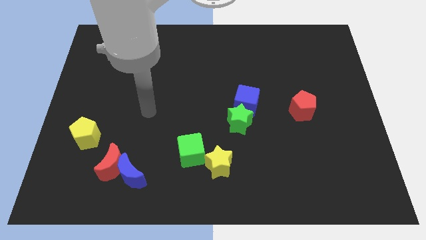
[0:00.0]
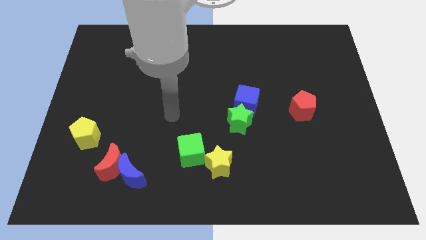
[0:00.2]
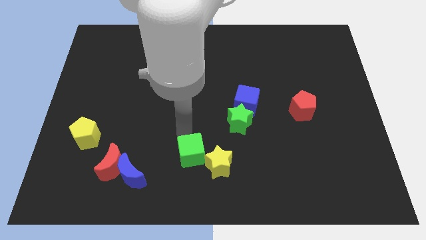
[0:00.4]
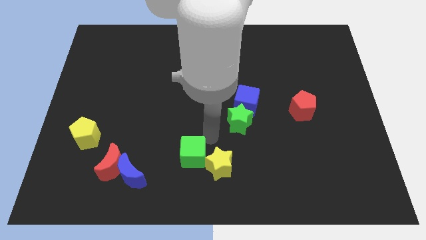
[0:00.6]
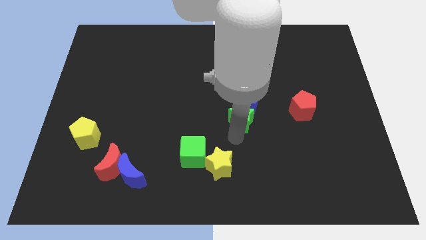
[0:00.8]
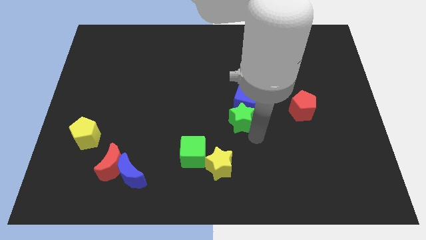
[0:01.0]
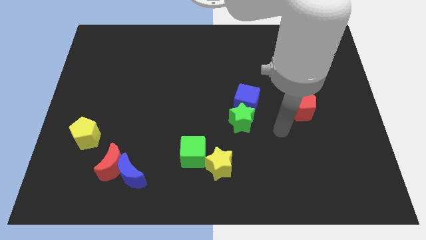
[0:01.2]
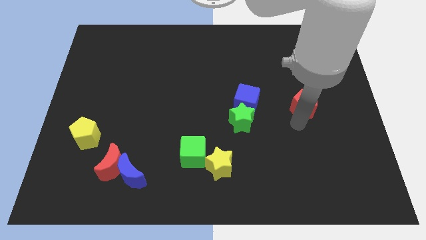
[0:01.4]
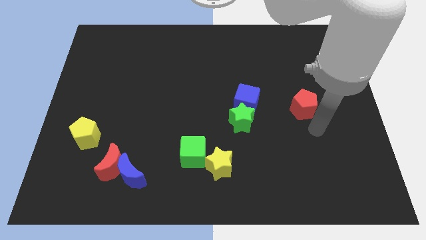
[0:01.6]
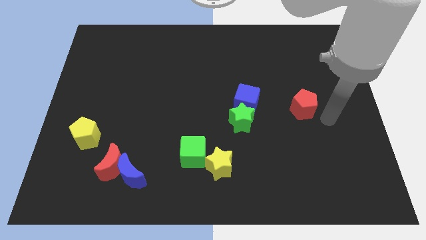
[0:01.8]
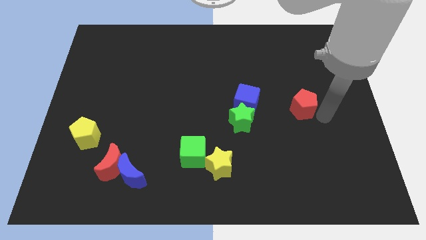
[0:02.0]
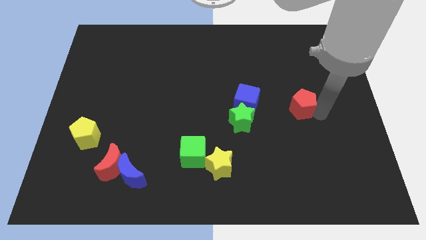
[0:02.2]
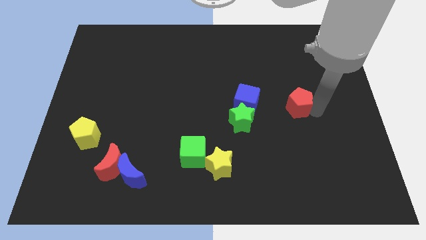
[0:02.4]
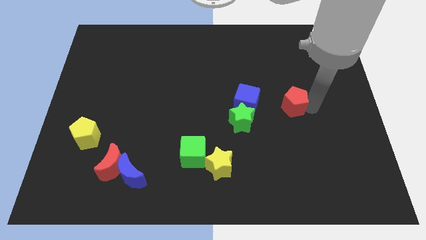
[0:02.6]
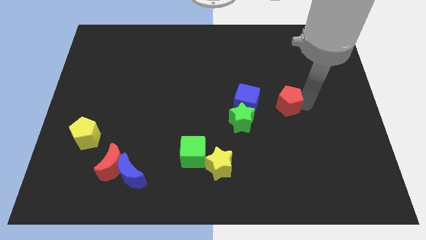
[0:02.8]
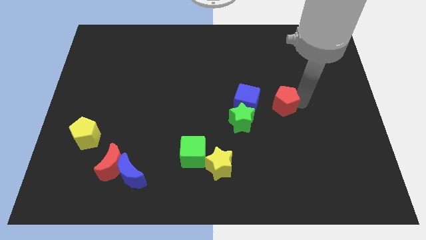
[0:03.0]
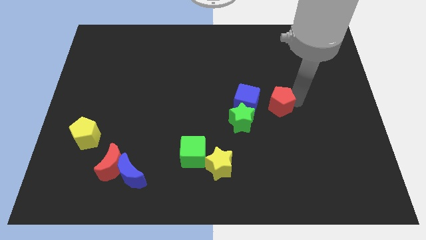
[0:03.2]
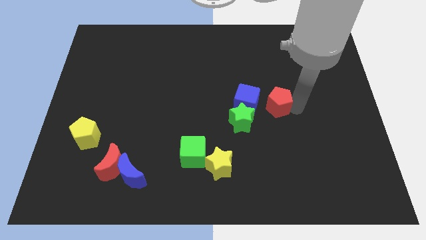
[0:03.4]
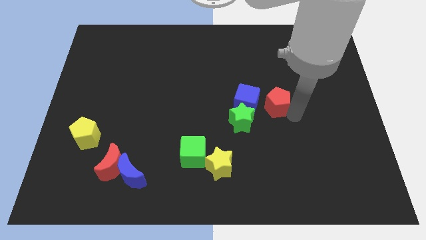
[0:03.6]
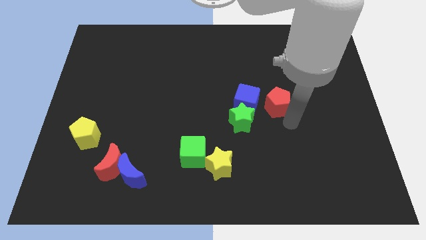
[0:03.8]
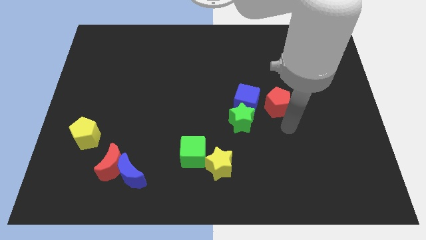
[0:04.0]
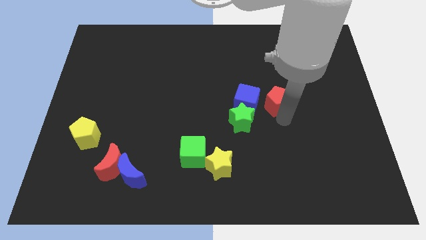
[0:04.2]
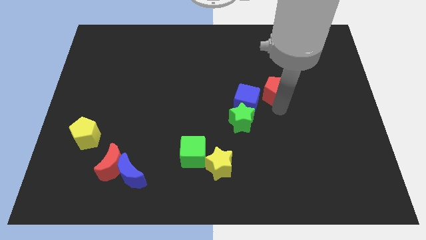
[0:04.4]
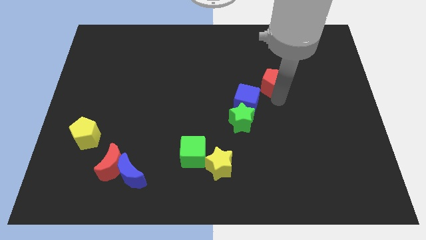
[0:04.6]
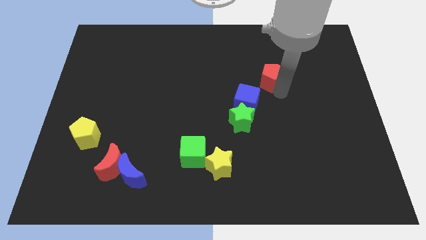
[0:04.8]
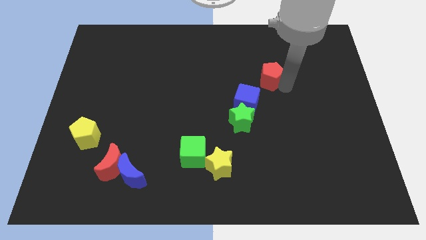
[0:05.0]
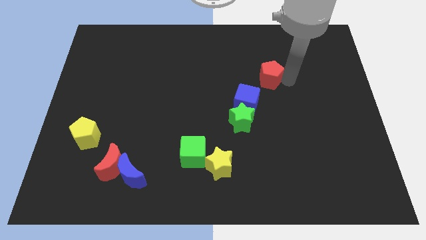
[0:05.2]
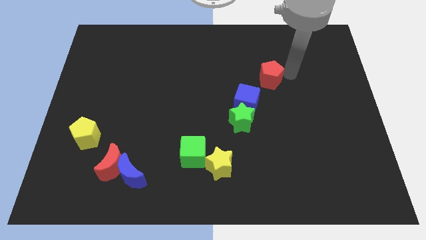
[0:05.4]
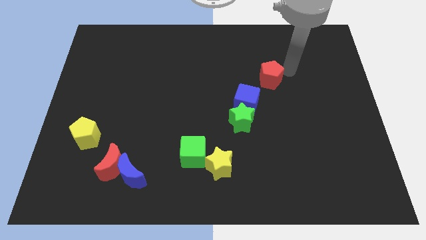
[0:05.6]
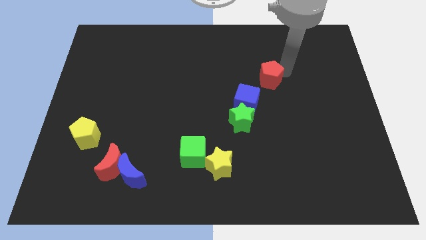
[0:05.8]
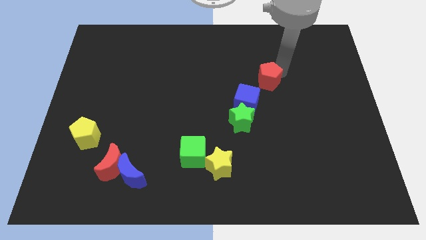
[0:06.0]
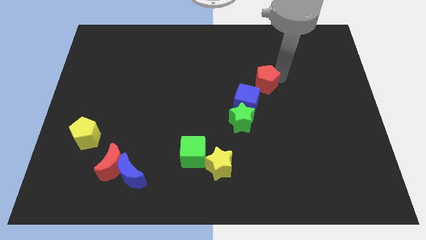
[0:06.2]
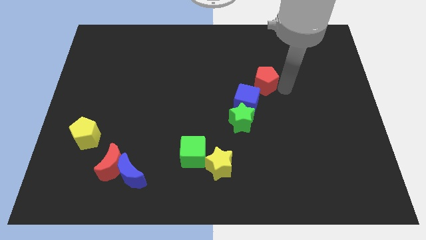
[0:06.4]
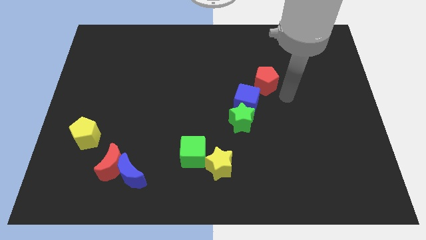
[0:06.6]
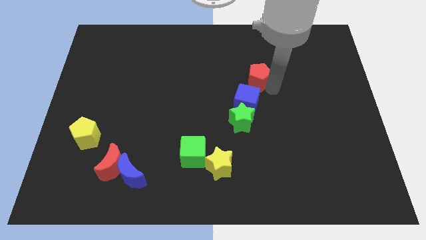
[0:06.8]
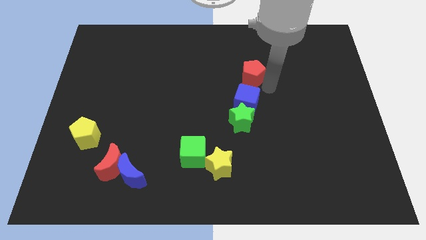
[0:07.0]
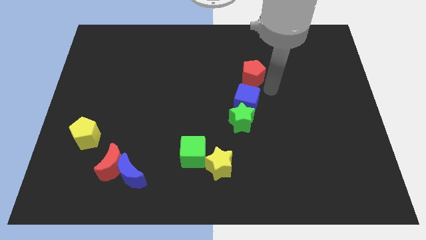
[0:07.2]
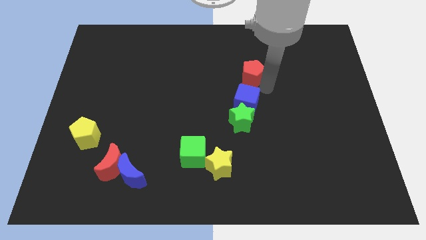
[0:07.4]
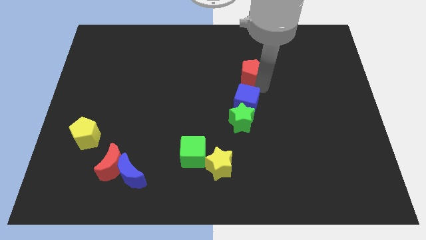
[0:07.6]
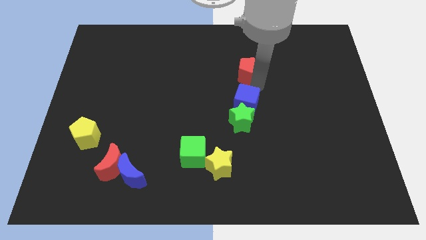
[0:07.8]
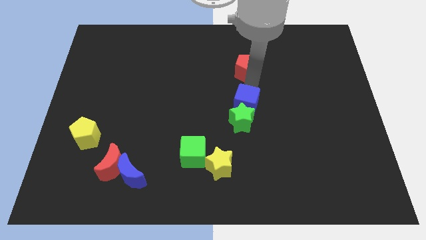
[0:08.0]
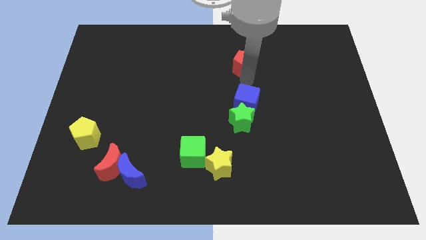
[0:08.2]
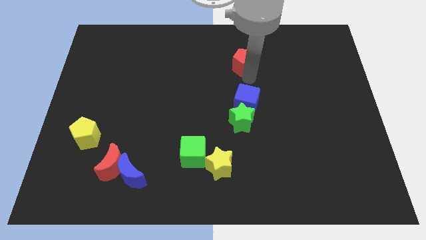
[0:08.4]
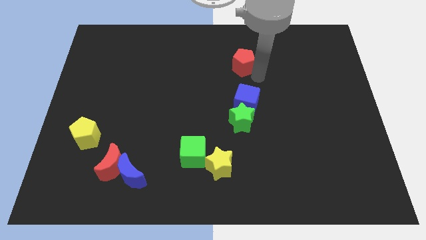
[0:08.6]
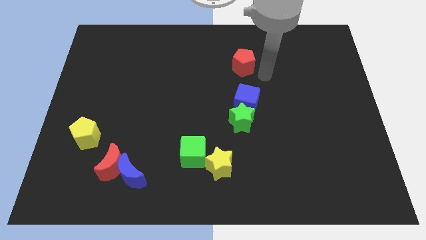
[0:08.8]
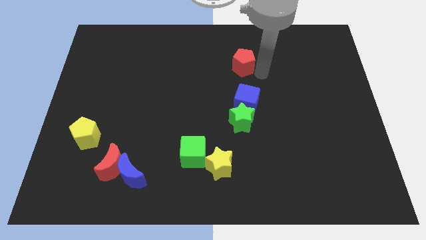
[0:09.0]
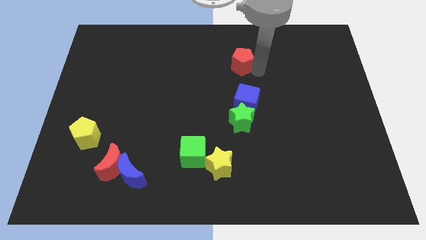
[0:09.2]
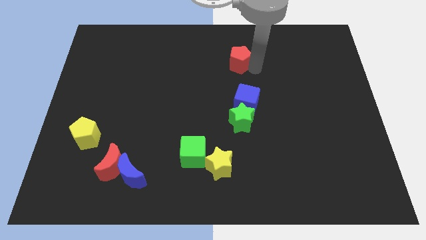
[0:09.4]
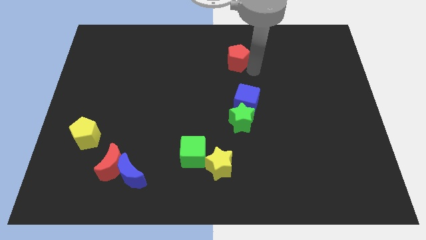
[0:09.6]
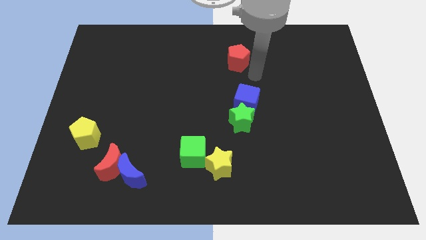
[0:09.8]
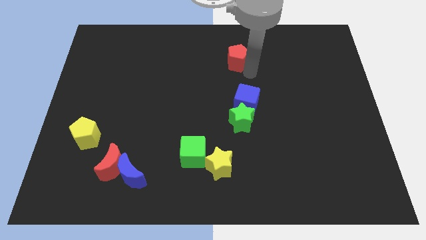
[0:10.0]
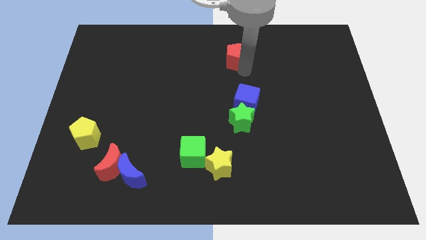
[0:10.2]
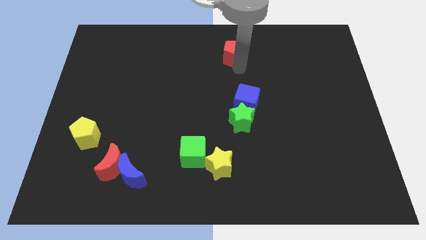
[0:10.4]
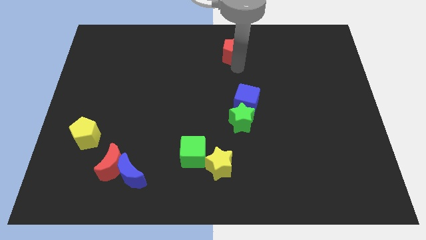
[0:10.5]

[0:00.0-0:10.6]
slide the red pentagon to the towards your base

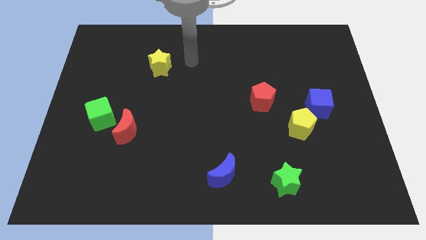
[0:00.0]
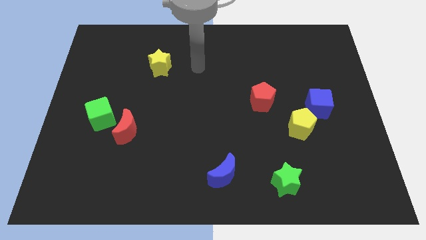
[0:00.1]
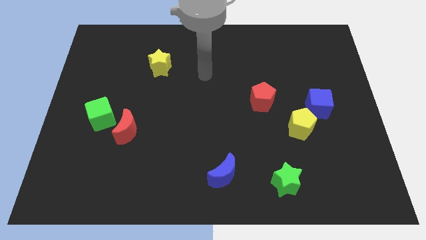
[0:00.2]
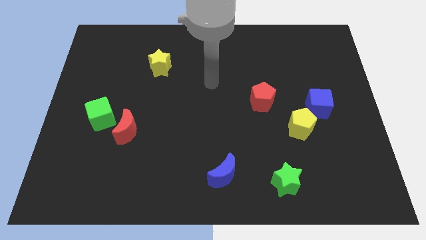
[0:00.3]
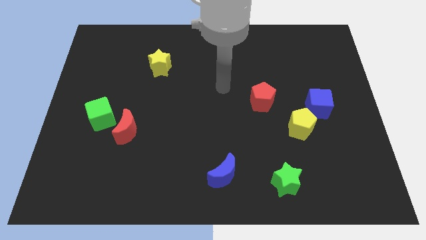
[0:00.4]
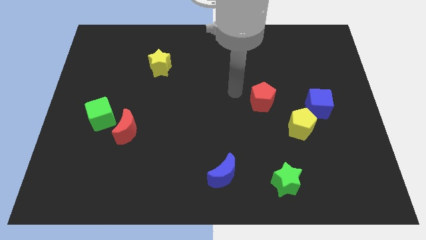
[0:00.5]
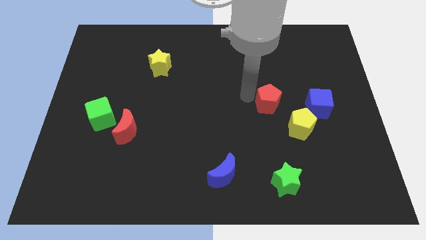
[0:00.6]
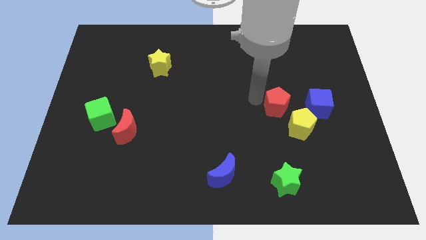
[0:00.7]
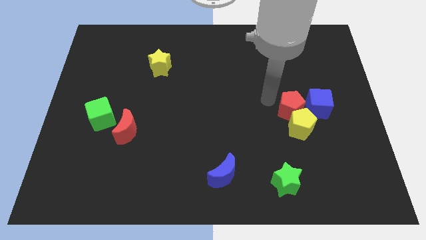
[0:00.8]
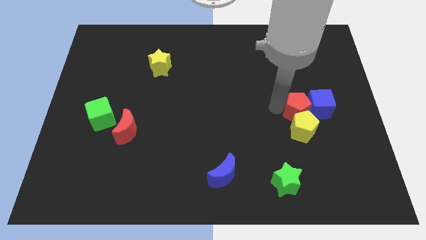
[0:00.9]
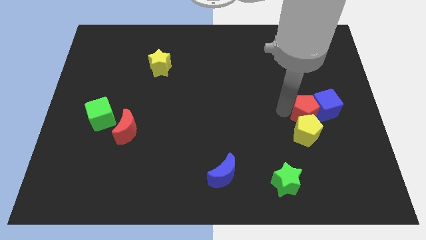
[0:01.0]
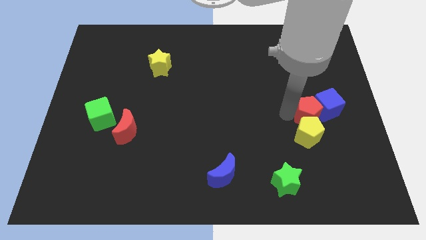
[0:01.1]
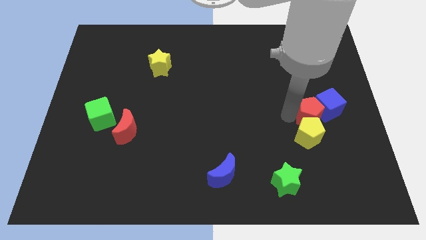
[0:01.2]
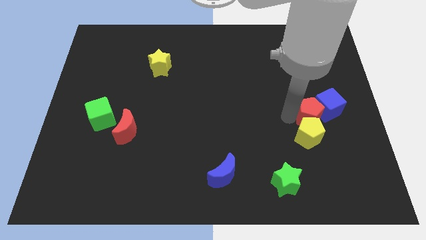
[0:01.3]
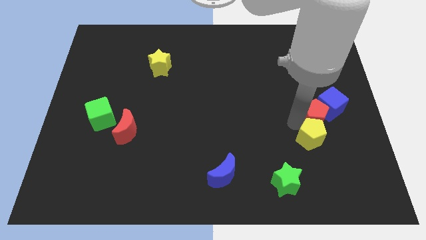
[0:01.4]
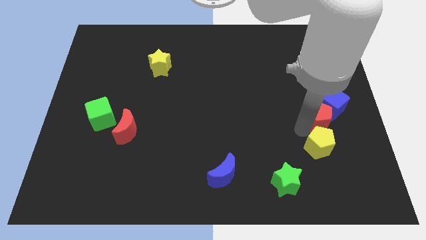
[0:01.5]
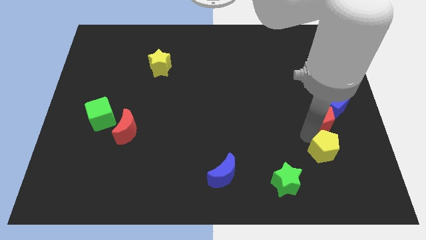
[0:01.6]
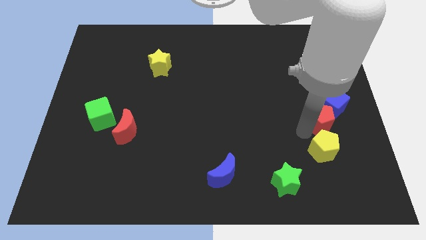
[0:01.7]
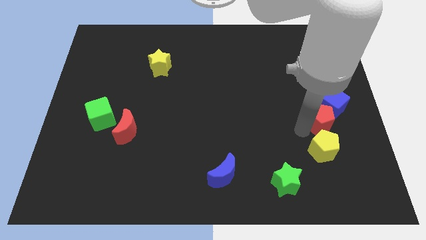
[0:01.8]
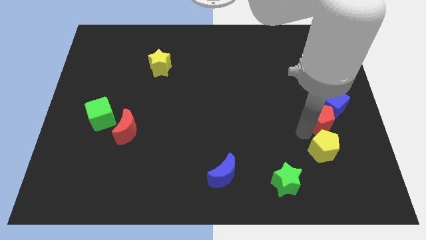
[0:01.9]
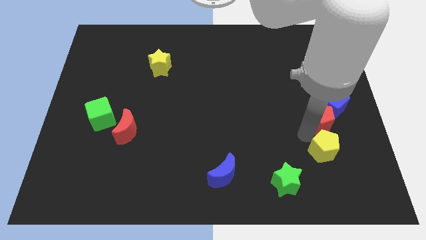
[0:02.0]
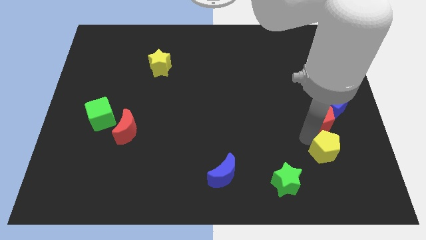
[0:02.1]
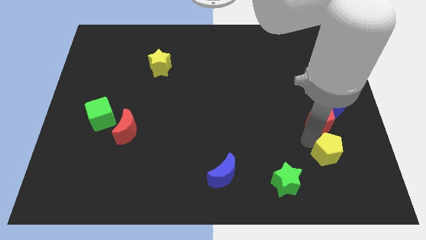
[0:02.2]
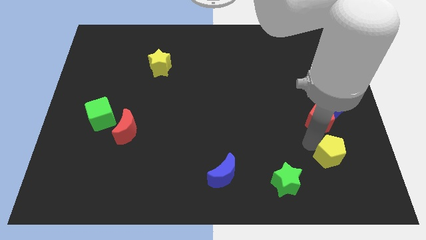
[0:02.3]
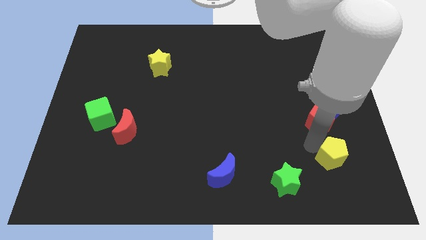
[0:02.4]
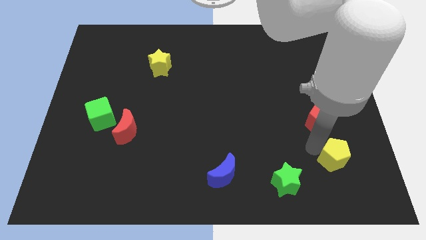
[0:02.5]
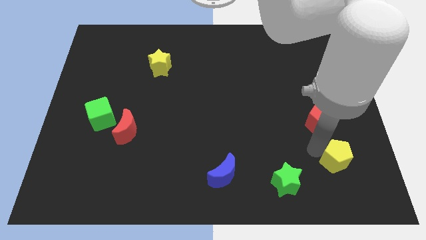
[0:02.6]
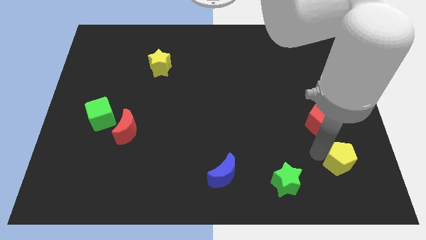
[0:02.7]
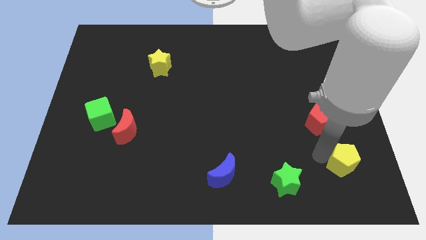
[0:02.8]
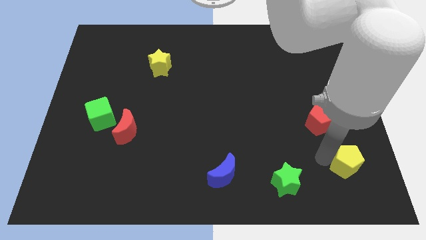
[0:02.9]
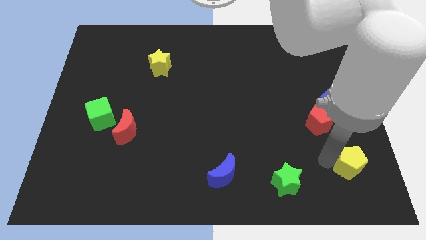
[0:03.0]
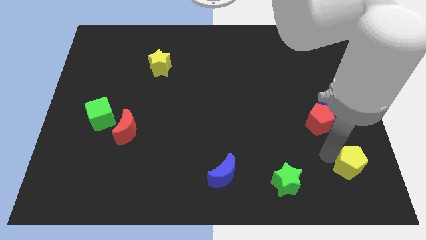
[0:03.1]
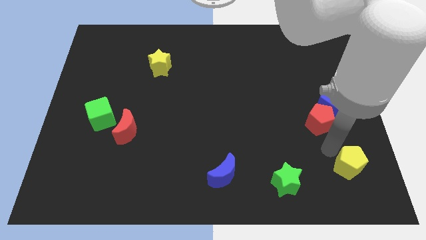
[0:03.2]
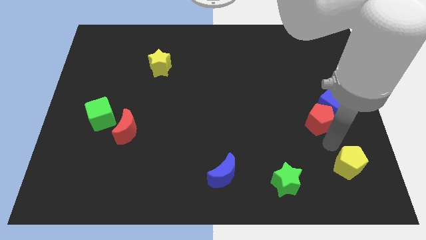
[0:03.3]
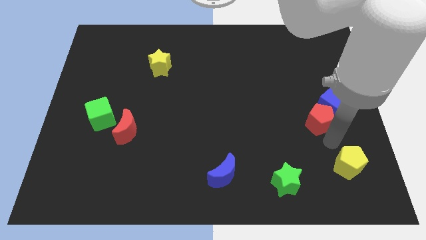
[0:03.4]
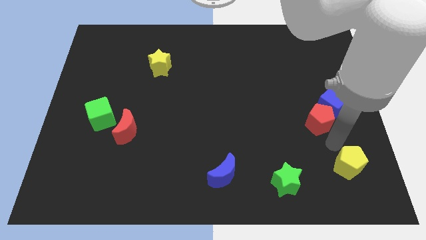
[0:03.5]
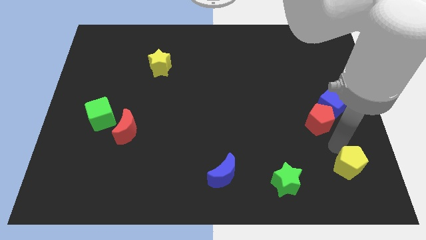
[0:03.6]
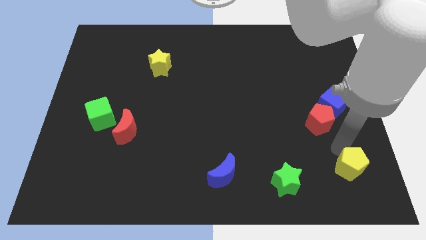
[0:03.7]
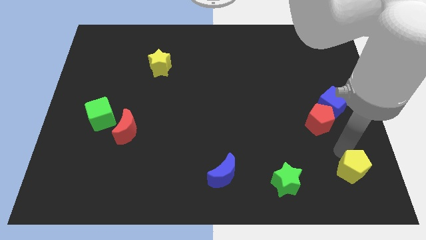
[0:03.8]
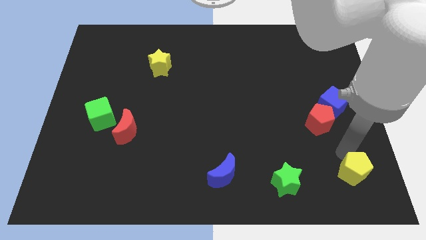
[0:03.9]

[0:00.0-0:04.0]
move the yellow pentagon to the bottom right
